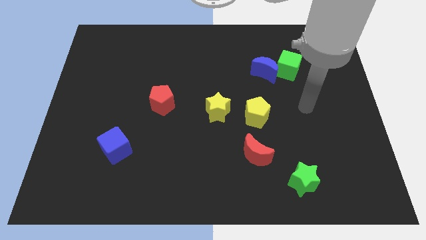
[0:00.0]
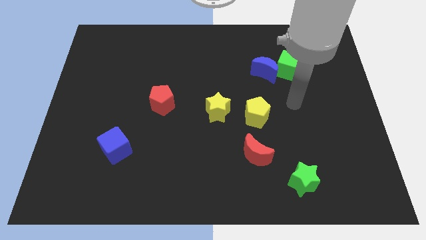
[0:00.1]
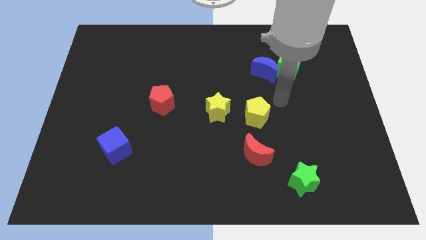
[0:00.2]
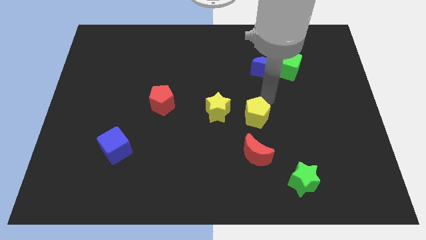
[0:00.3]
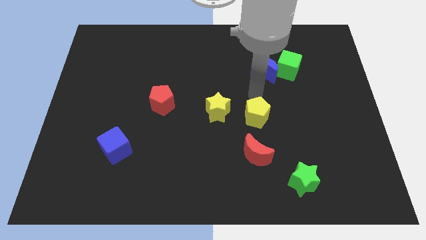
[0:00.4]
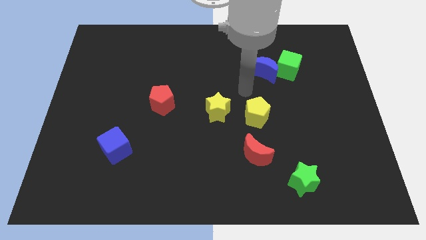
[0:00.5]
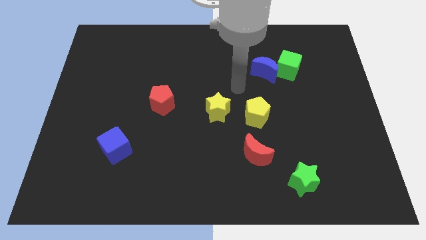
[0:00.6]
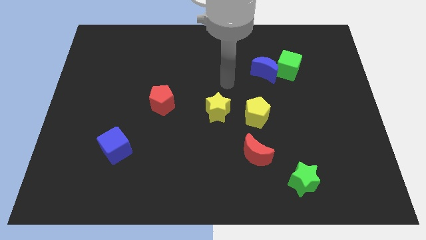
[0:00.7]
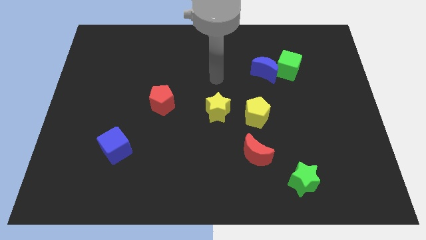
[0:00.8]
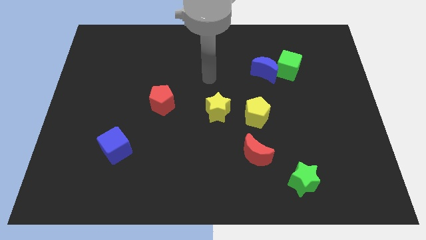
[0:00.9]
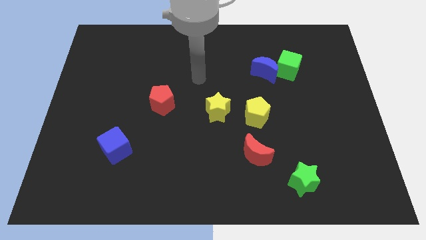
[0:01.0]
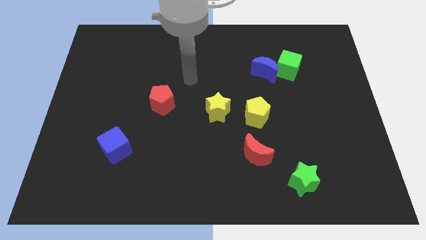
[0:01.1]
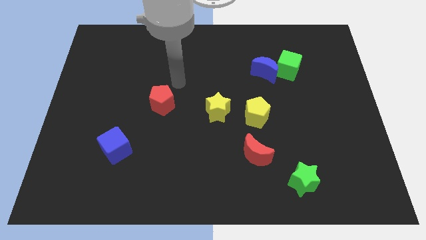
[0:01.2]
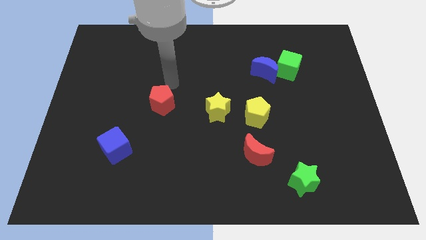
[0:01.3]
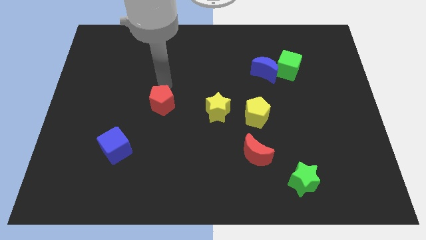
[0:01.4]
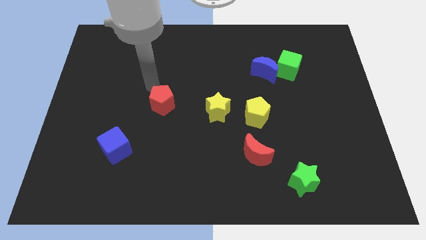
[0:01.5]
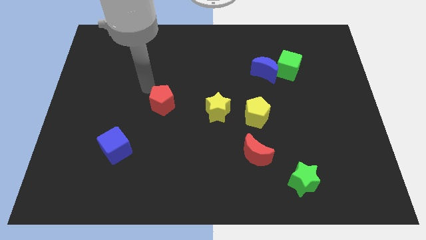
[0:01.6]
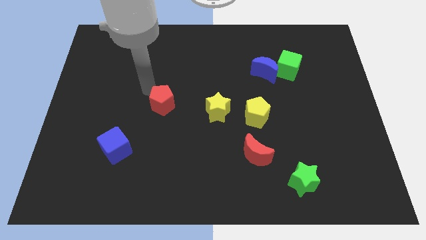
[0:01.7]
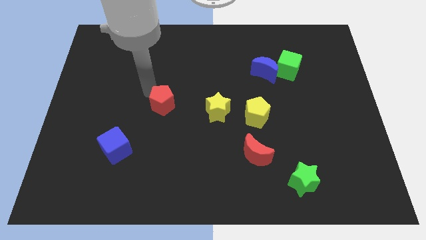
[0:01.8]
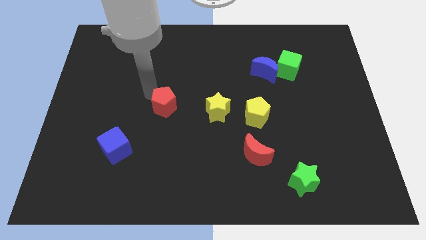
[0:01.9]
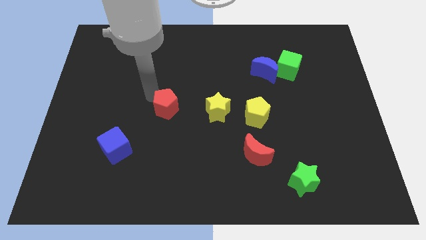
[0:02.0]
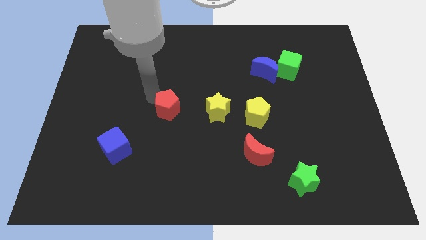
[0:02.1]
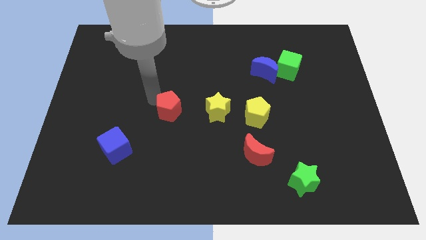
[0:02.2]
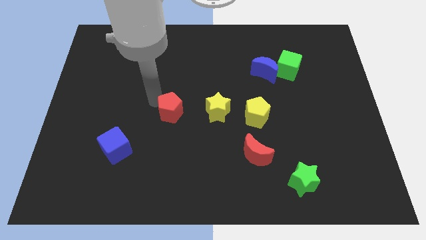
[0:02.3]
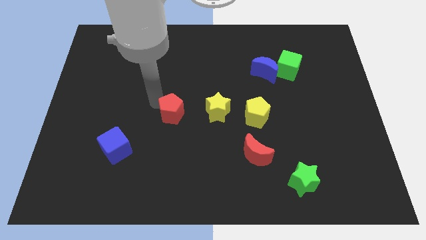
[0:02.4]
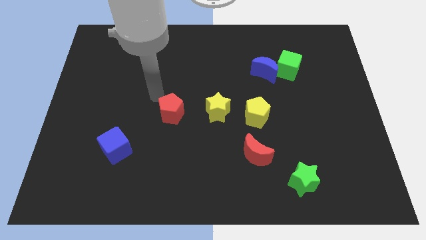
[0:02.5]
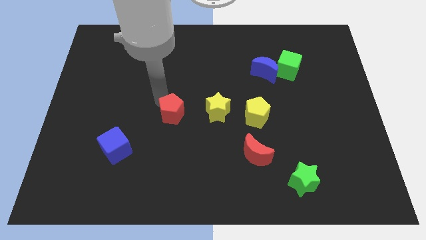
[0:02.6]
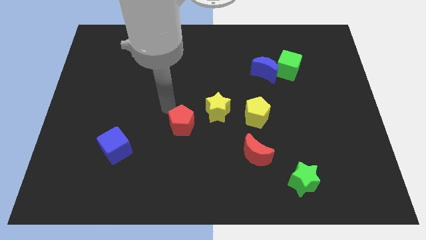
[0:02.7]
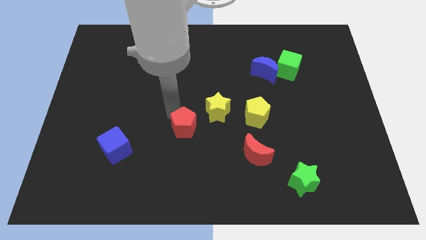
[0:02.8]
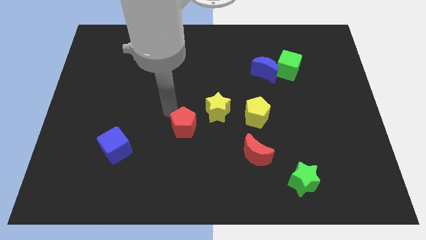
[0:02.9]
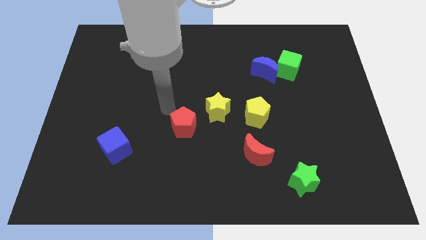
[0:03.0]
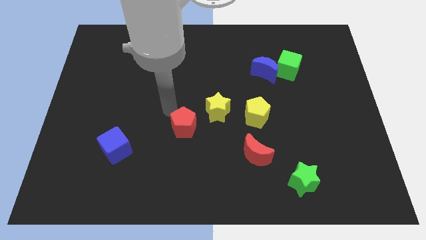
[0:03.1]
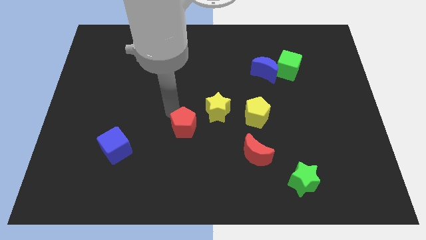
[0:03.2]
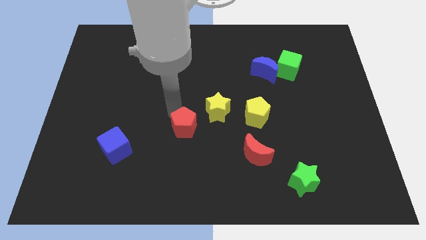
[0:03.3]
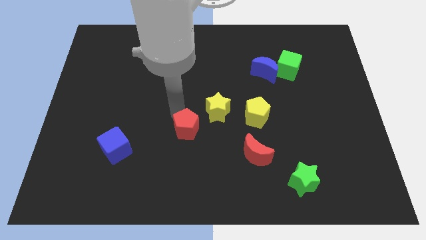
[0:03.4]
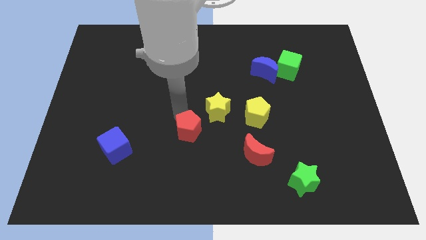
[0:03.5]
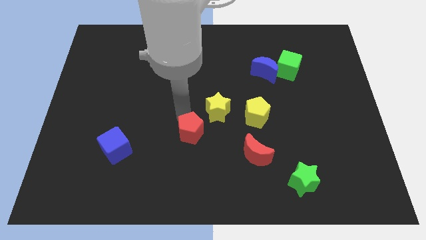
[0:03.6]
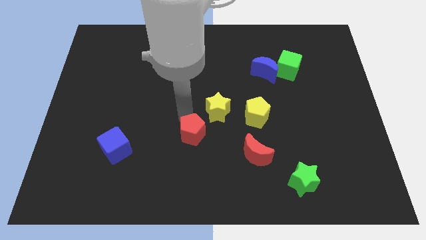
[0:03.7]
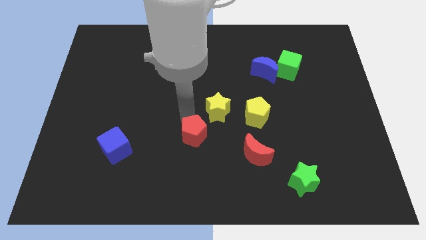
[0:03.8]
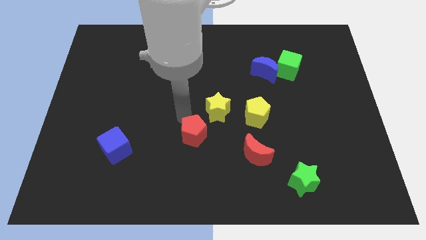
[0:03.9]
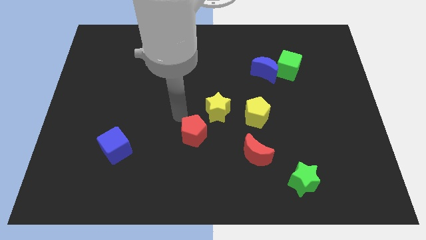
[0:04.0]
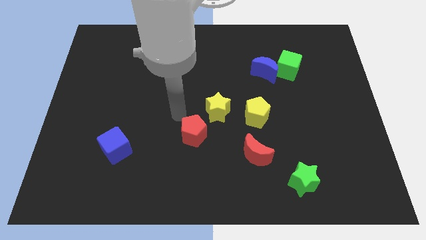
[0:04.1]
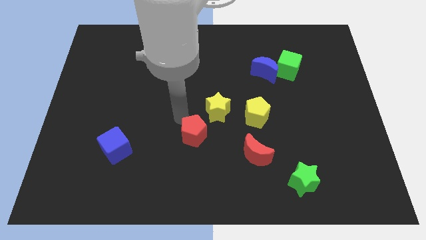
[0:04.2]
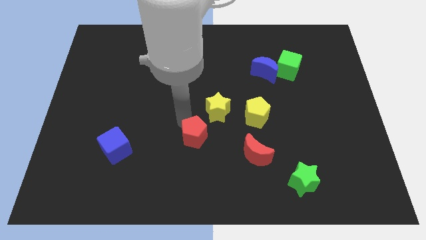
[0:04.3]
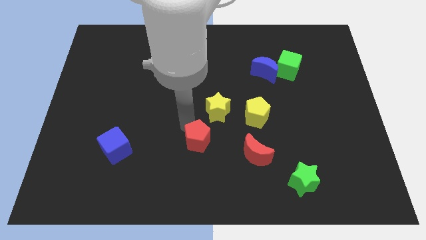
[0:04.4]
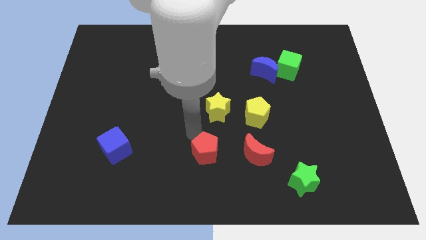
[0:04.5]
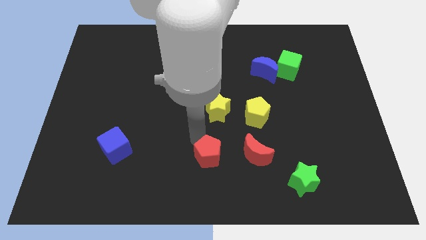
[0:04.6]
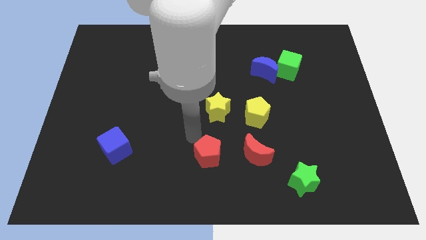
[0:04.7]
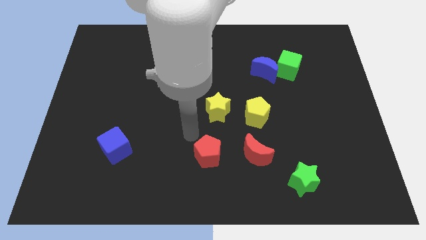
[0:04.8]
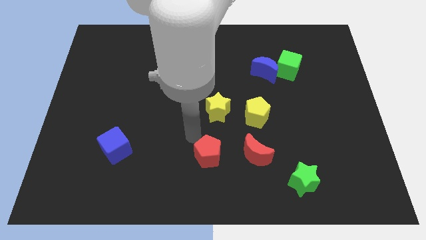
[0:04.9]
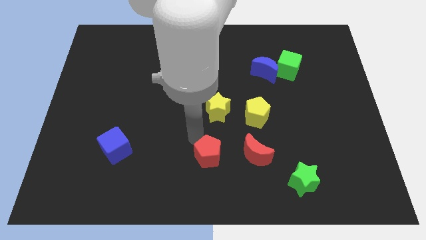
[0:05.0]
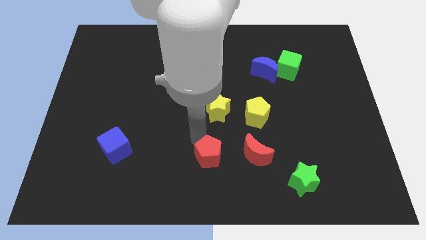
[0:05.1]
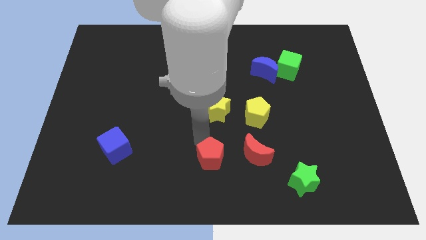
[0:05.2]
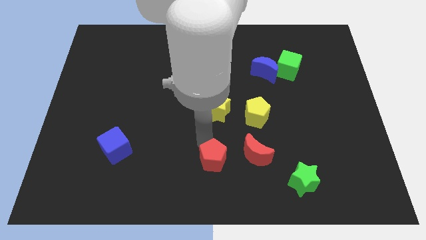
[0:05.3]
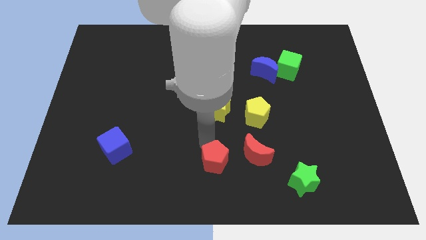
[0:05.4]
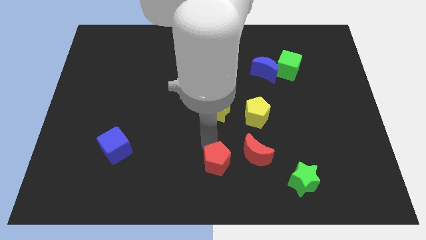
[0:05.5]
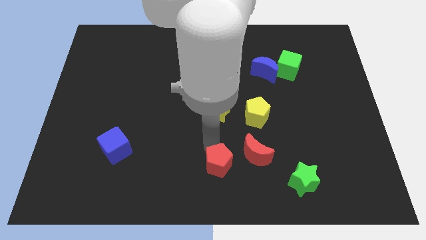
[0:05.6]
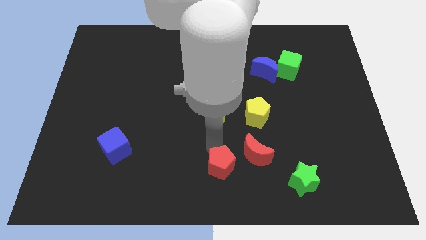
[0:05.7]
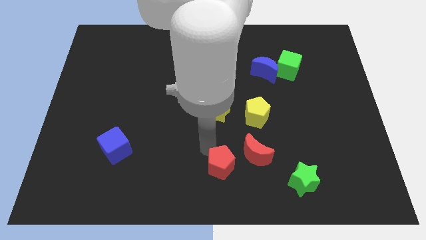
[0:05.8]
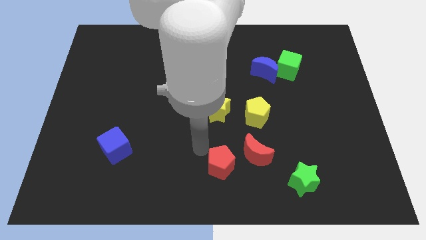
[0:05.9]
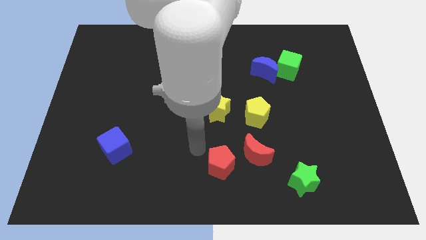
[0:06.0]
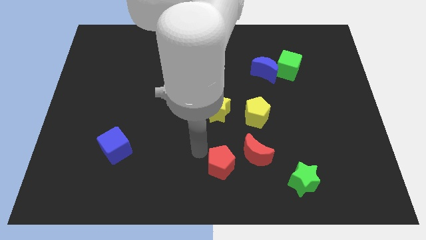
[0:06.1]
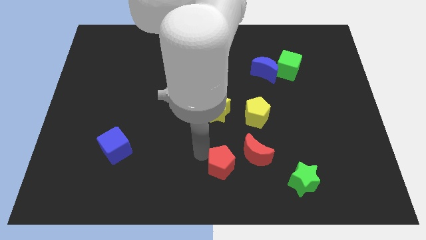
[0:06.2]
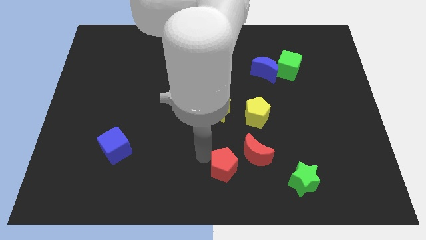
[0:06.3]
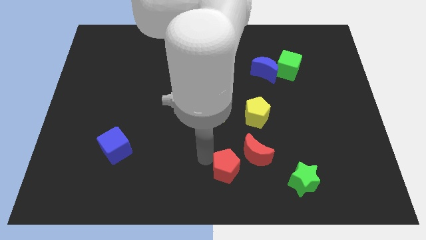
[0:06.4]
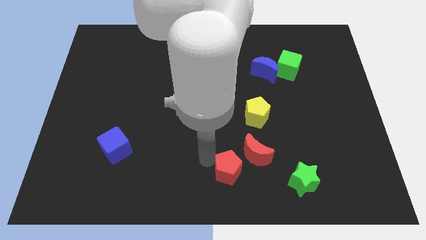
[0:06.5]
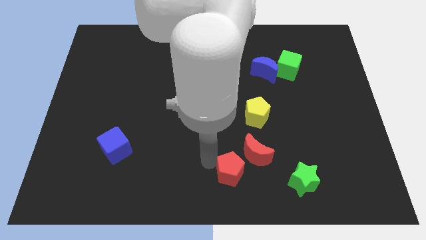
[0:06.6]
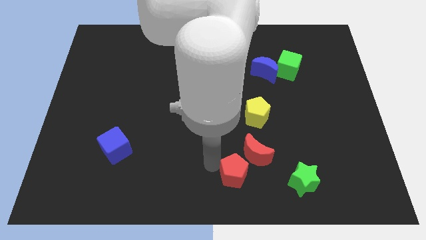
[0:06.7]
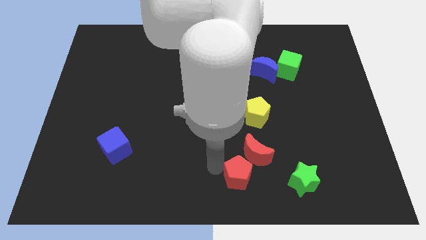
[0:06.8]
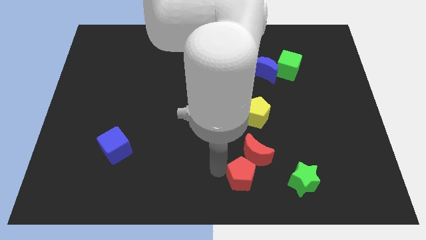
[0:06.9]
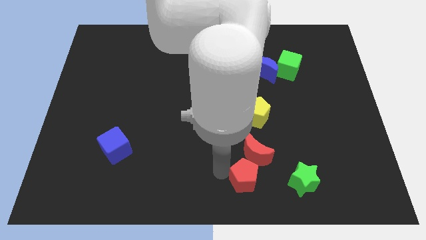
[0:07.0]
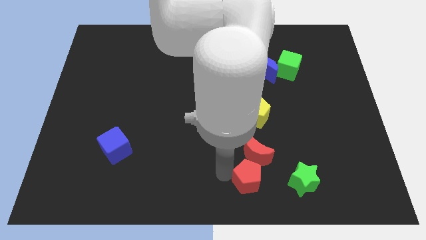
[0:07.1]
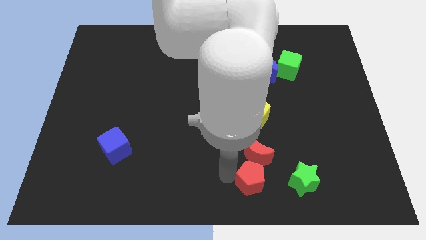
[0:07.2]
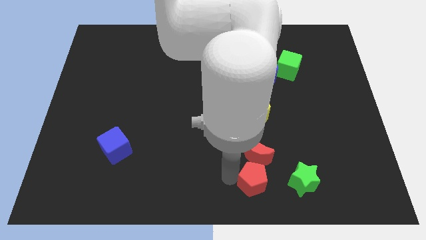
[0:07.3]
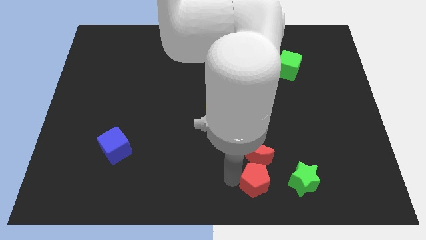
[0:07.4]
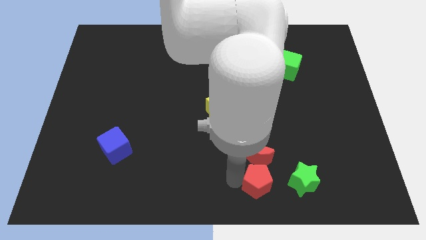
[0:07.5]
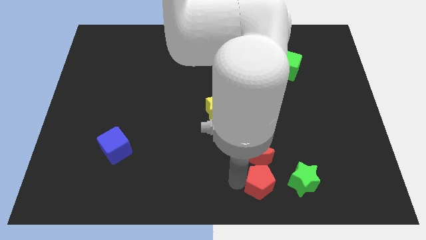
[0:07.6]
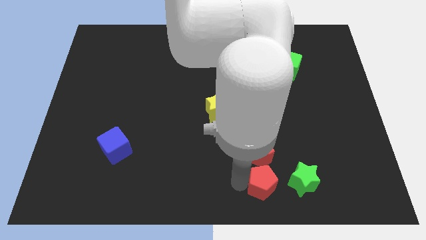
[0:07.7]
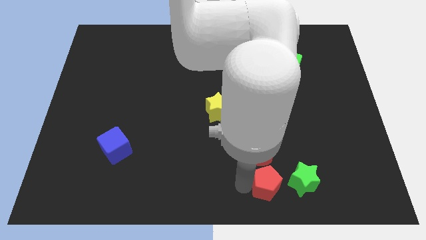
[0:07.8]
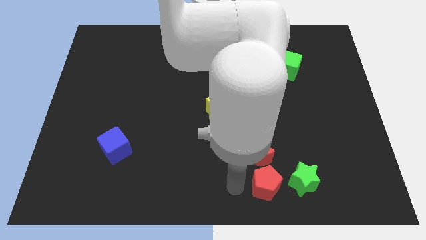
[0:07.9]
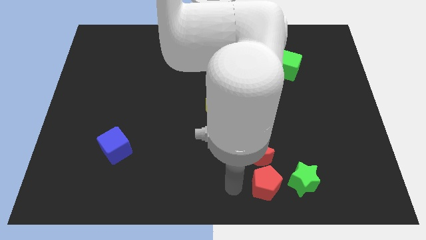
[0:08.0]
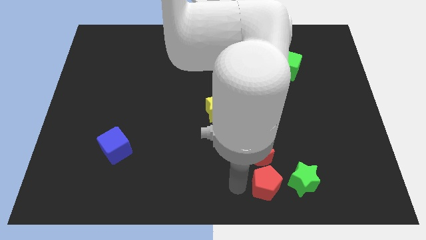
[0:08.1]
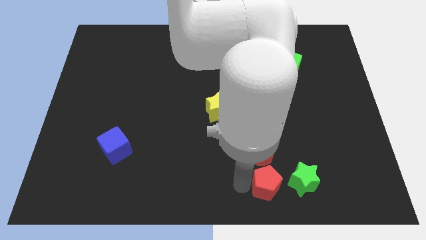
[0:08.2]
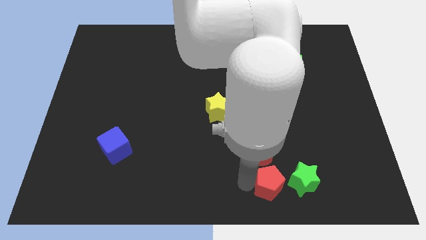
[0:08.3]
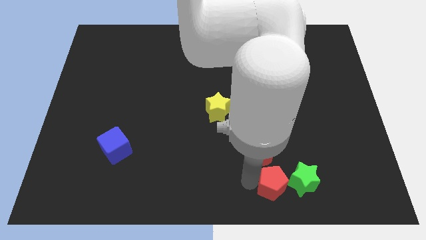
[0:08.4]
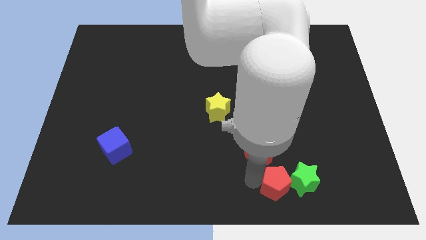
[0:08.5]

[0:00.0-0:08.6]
slide the red pentagon close to the green star
